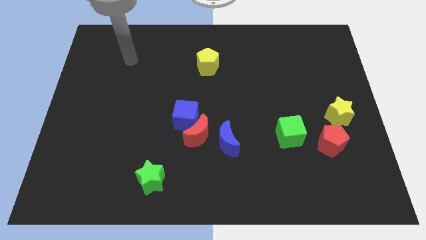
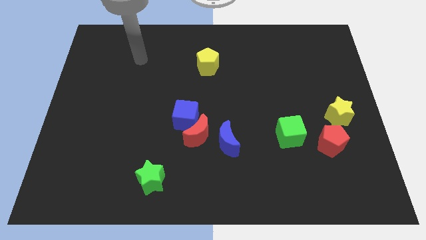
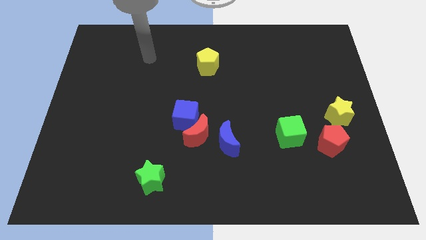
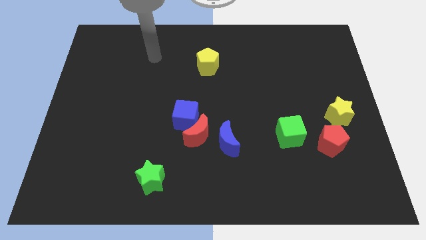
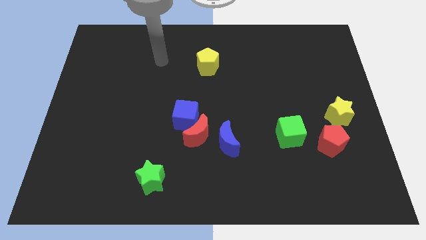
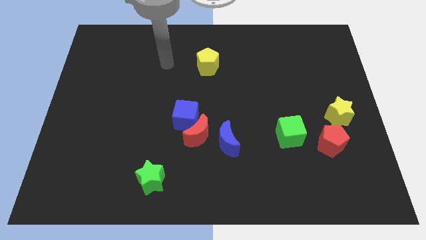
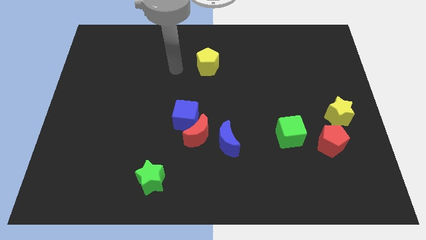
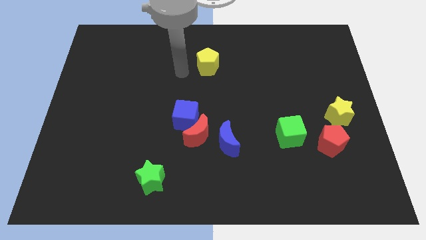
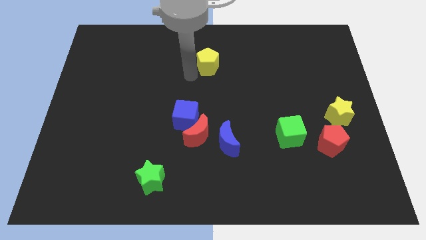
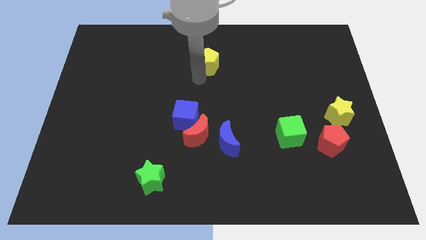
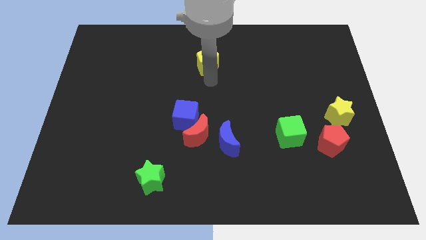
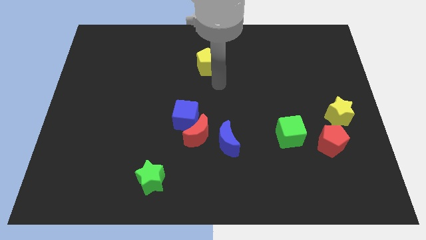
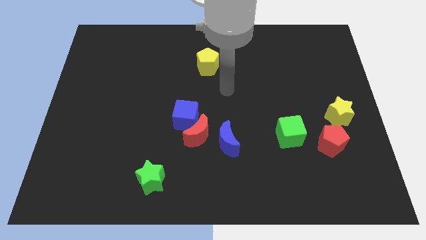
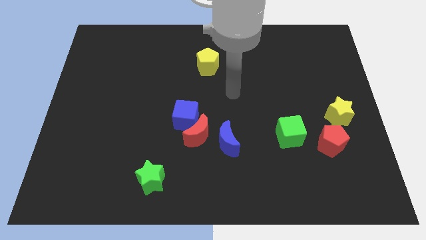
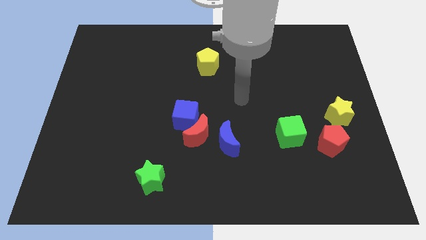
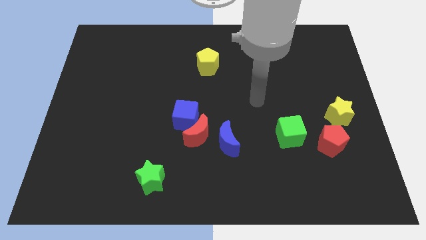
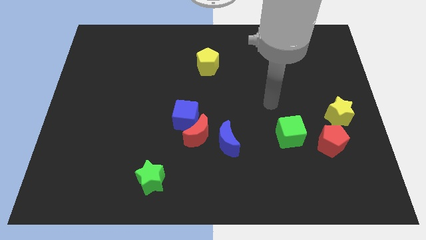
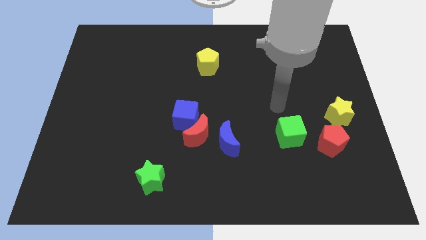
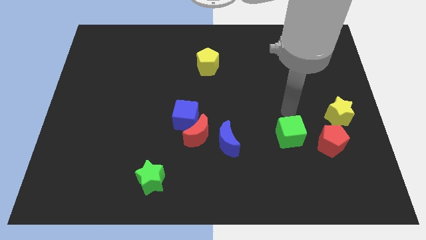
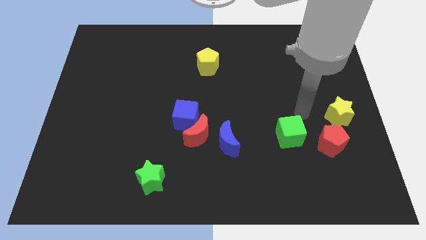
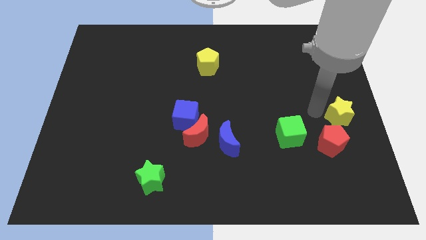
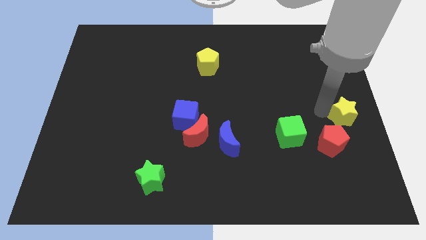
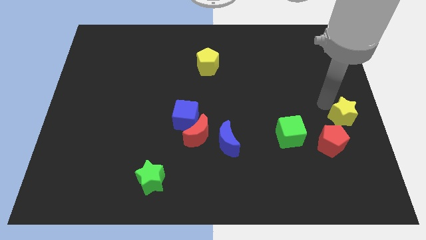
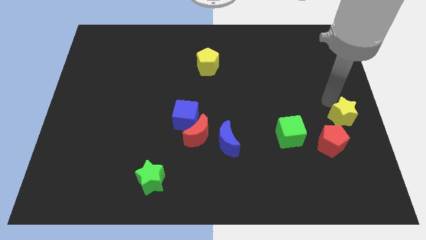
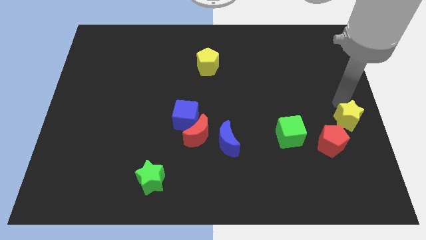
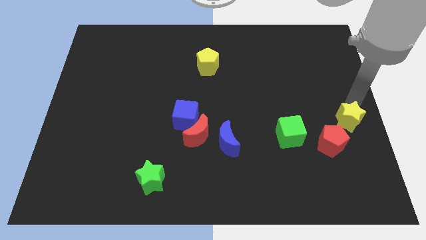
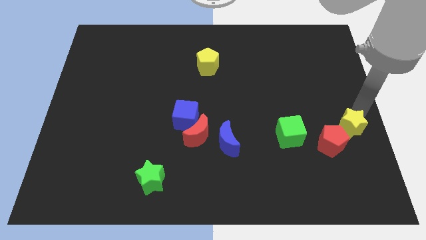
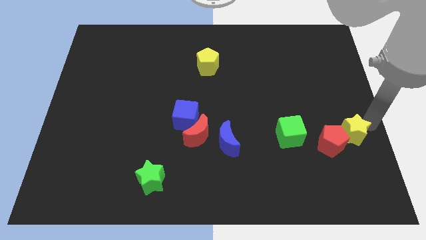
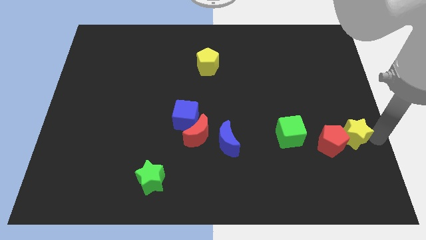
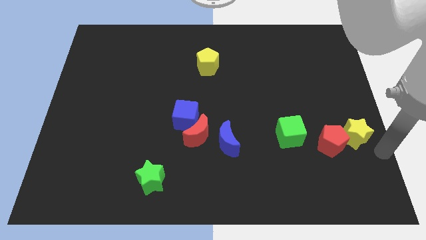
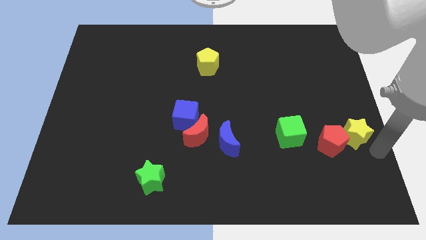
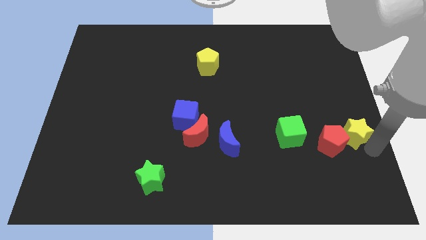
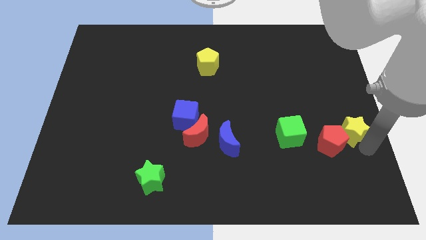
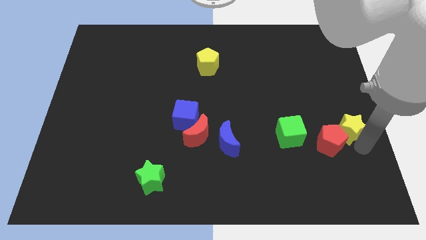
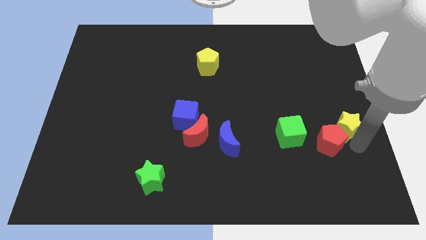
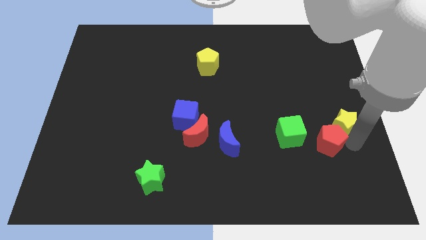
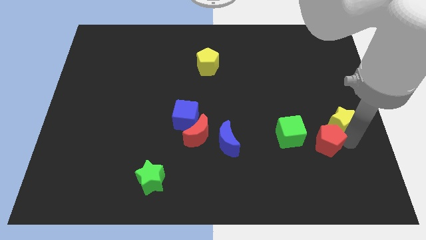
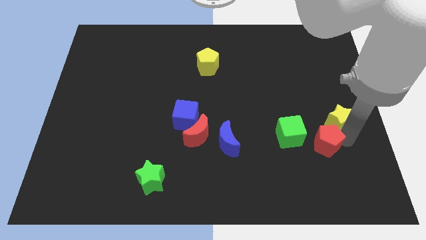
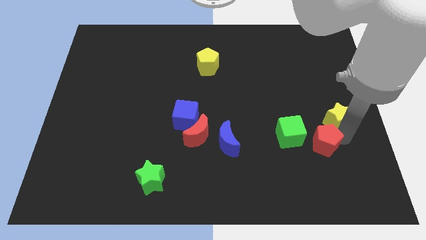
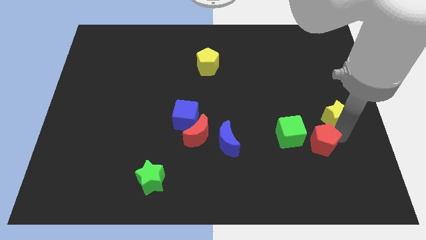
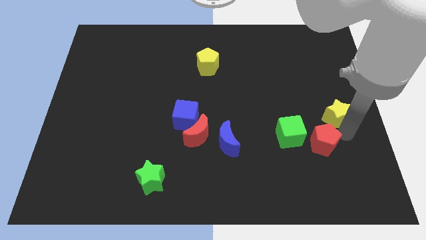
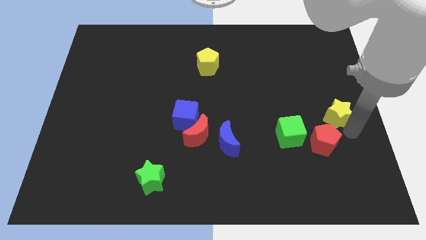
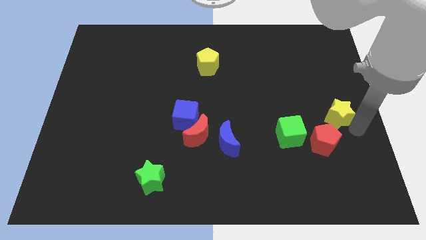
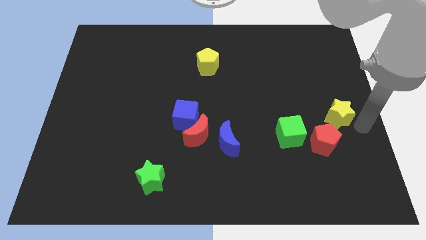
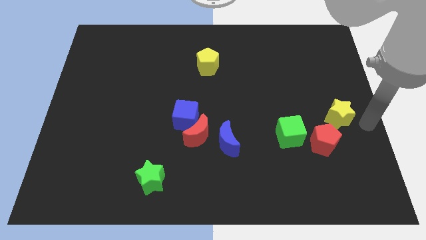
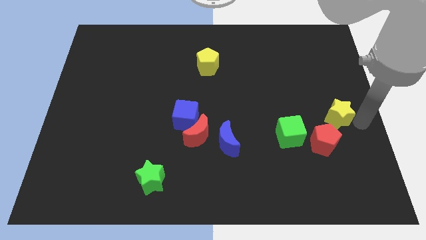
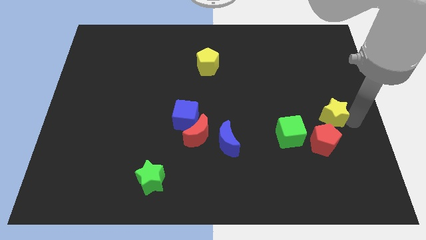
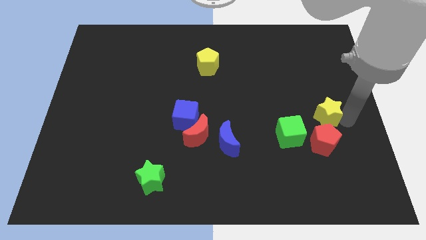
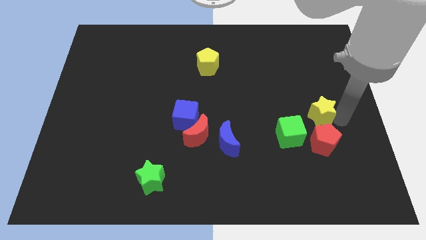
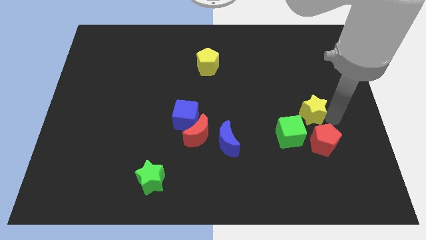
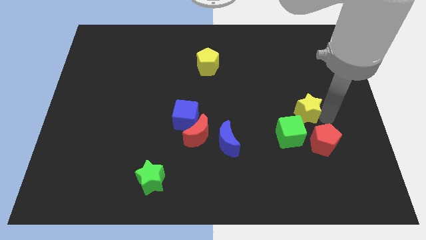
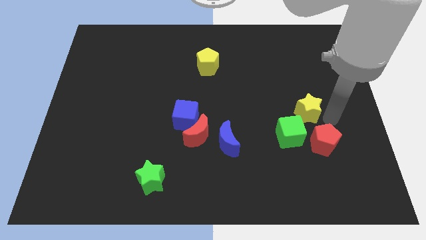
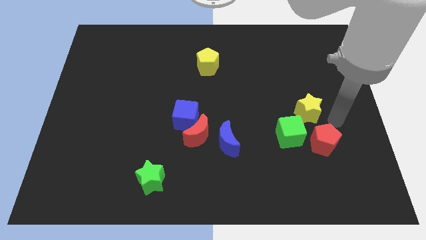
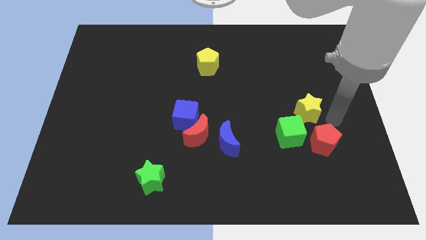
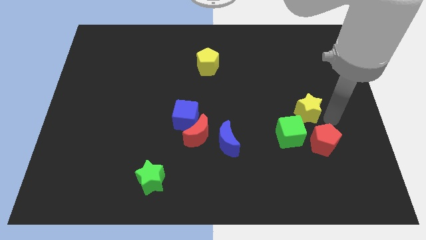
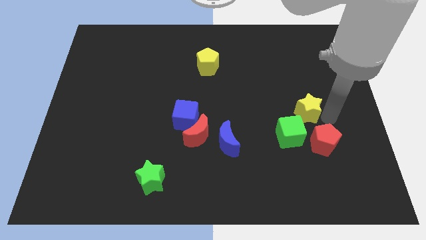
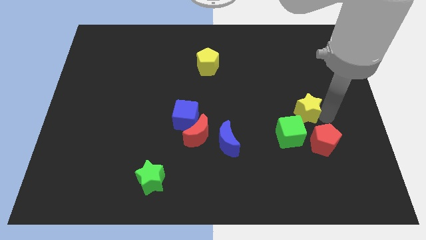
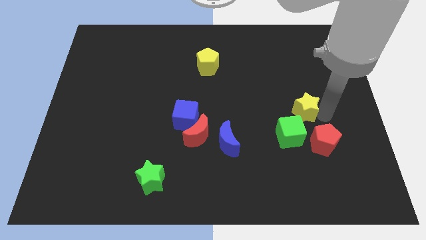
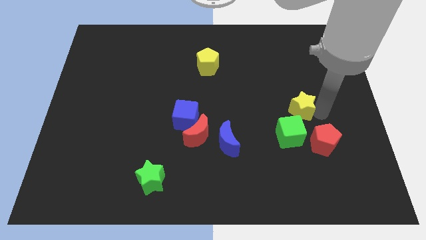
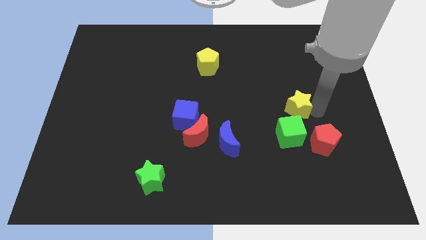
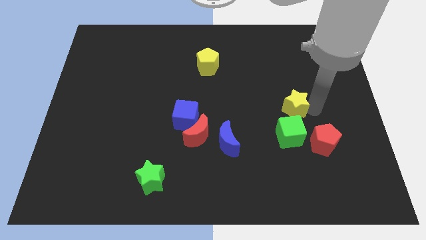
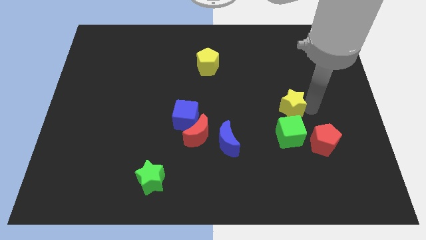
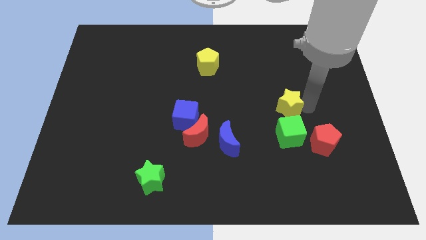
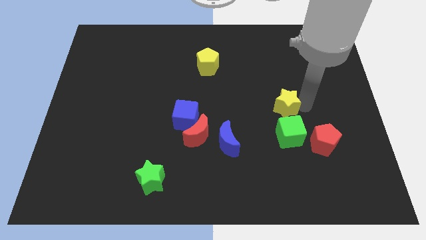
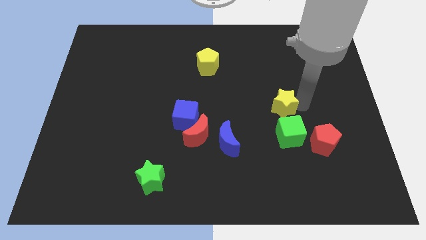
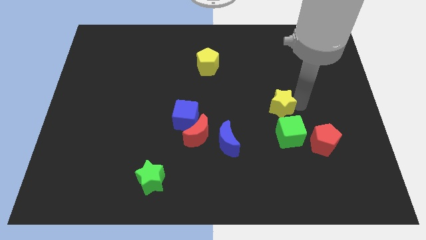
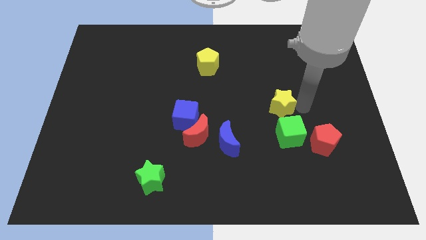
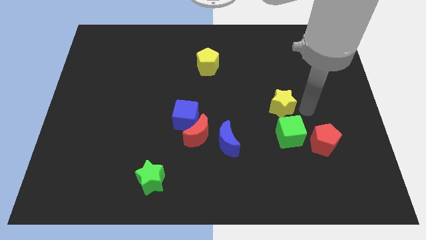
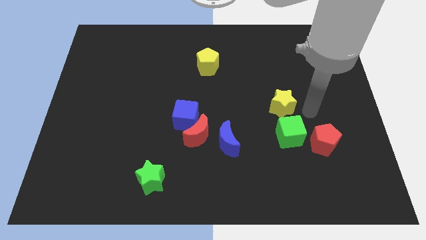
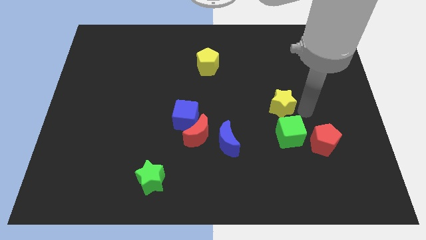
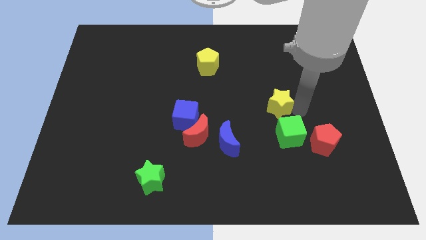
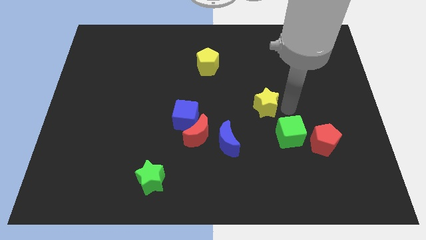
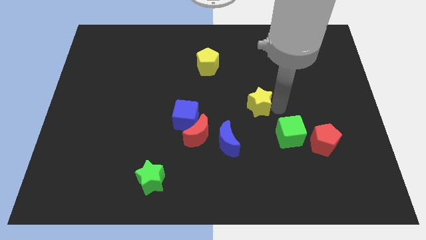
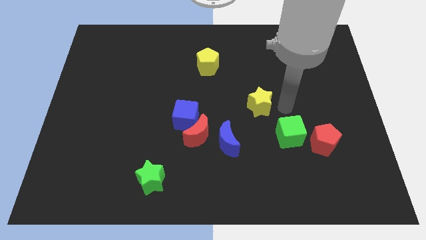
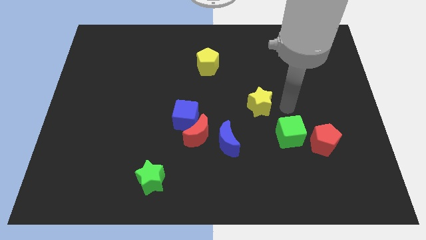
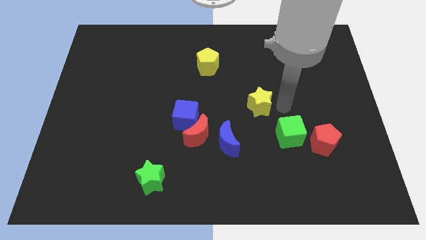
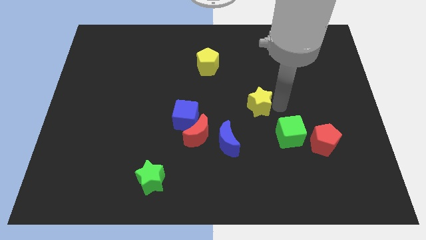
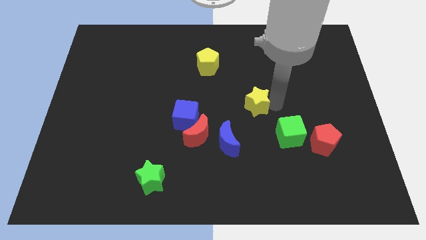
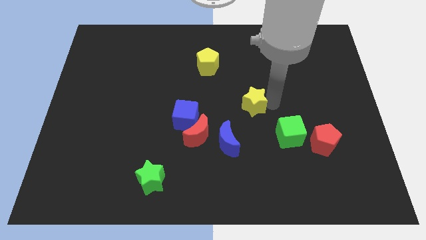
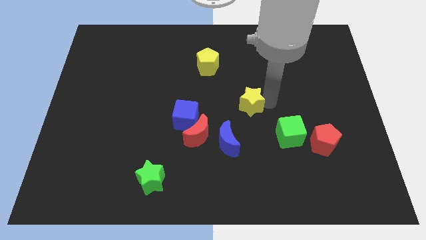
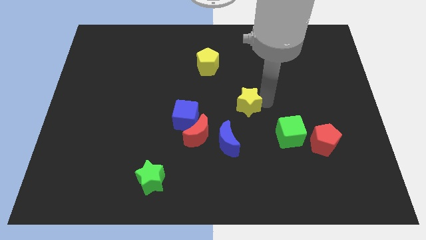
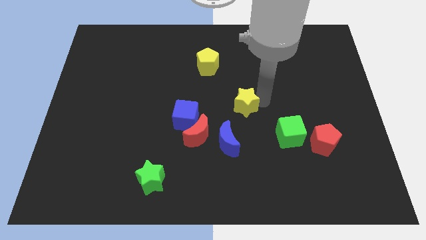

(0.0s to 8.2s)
push the yellow star above the blue moon
